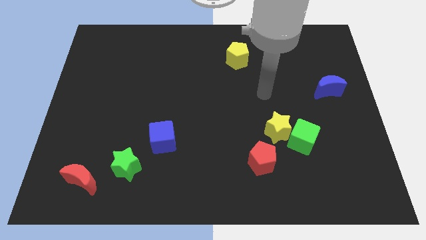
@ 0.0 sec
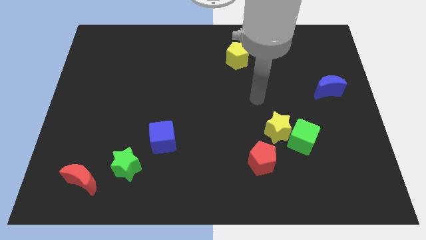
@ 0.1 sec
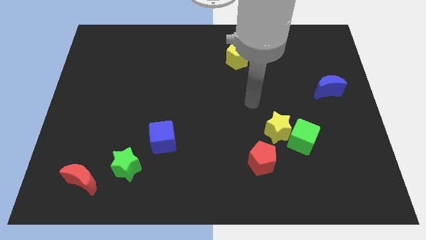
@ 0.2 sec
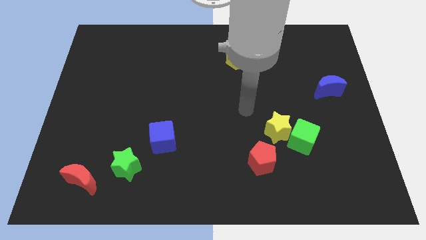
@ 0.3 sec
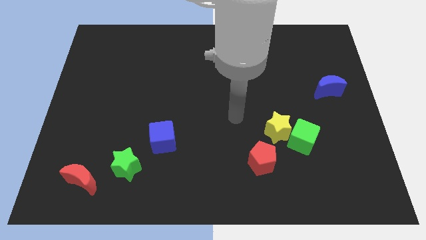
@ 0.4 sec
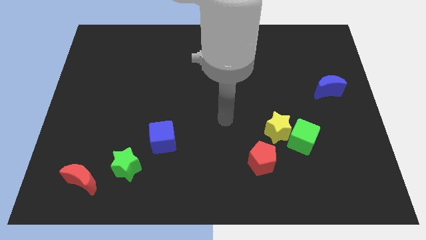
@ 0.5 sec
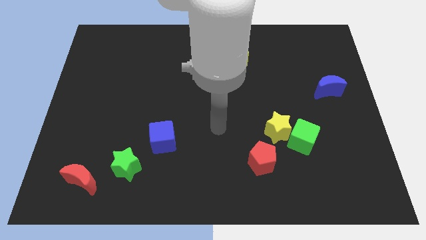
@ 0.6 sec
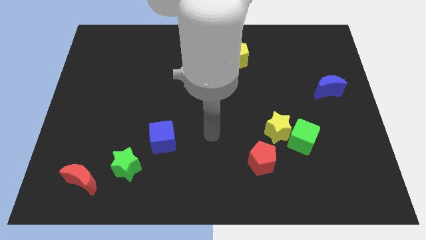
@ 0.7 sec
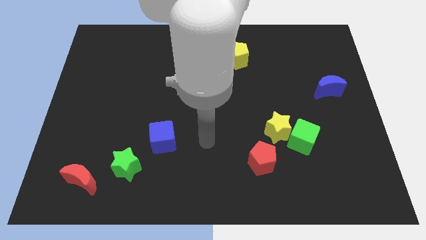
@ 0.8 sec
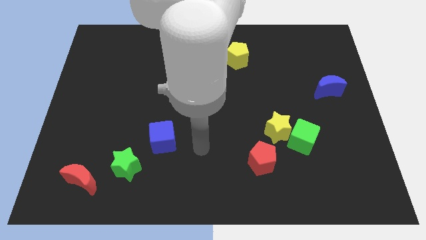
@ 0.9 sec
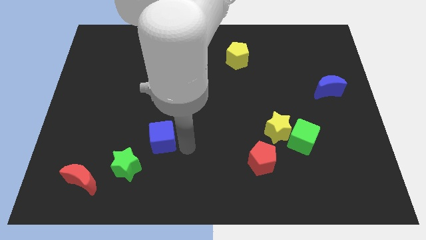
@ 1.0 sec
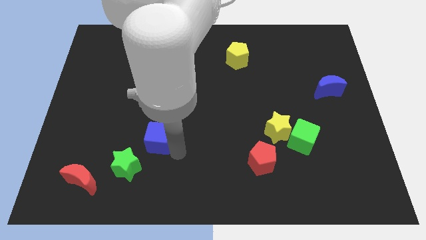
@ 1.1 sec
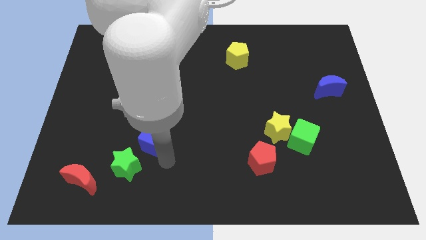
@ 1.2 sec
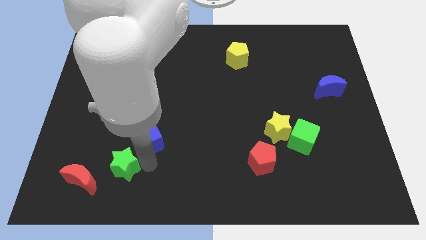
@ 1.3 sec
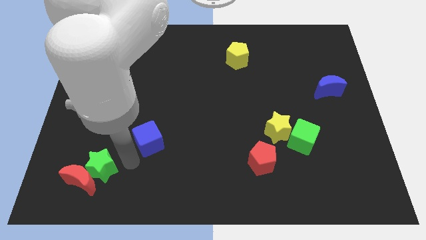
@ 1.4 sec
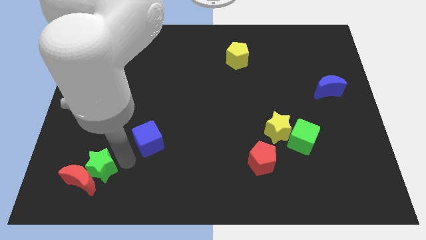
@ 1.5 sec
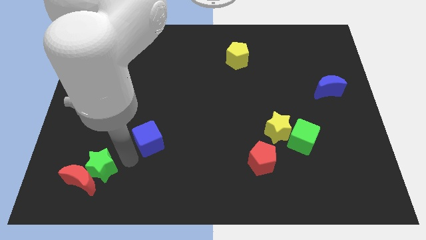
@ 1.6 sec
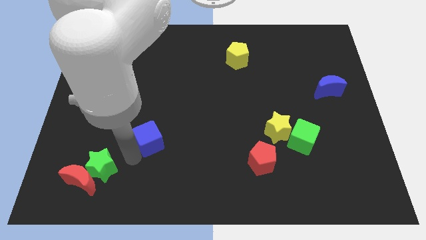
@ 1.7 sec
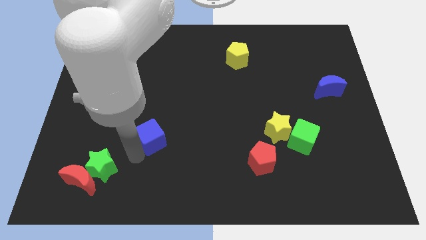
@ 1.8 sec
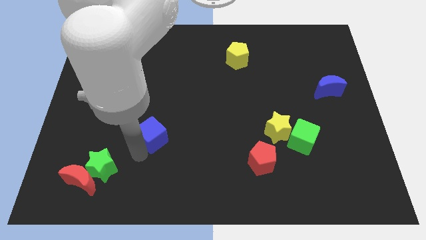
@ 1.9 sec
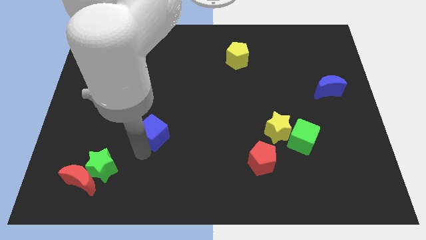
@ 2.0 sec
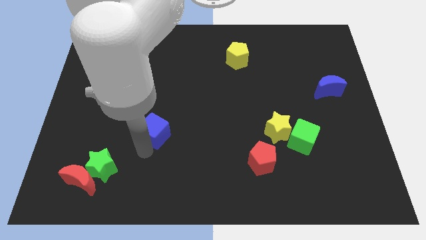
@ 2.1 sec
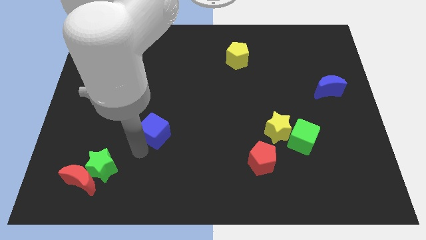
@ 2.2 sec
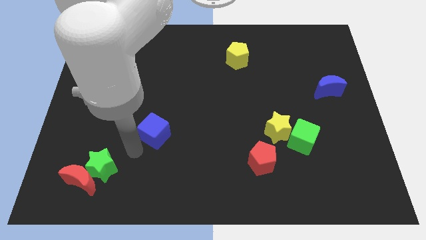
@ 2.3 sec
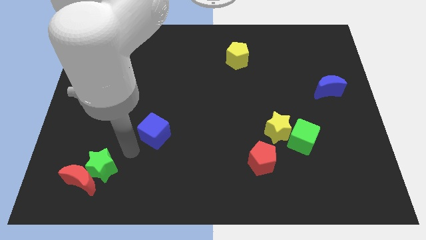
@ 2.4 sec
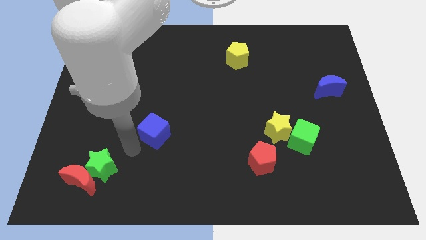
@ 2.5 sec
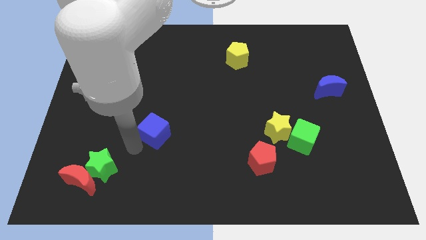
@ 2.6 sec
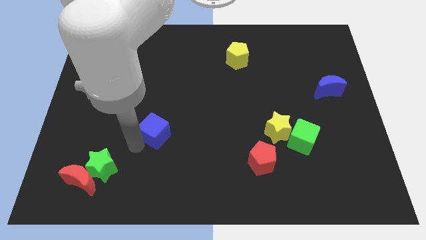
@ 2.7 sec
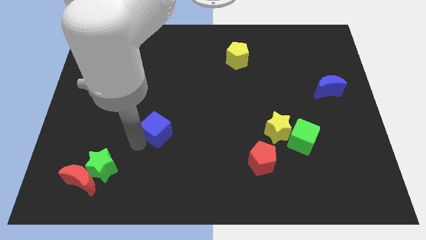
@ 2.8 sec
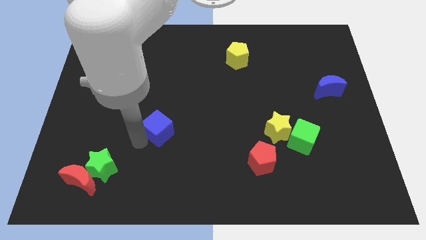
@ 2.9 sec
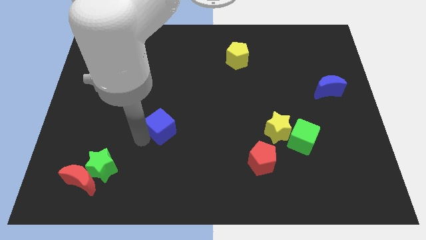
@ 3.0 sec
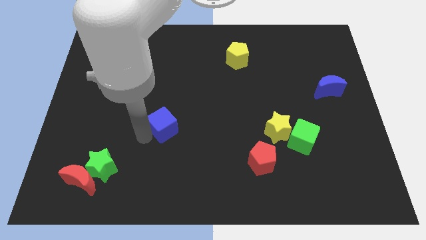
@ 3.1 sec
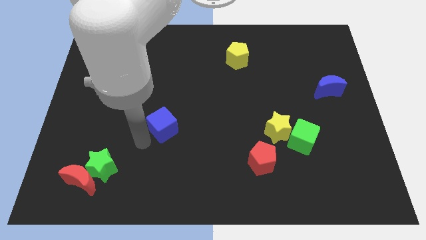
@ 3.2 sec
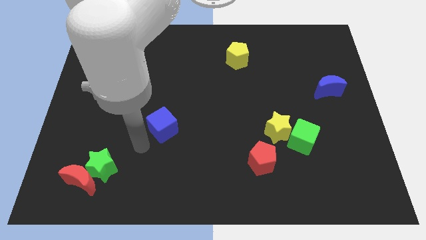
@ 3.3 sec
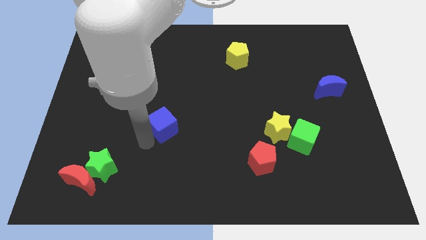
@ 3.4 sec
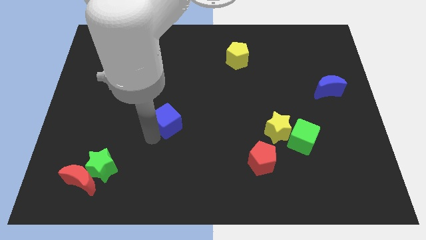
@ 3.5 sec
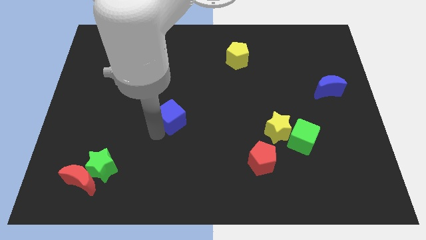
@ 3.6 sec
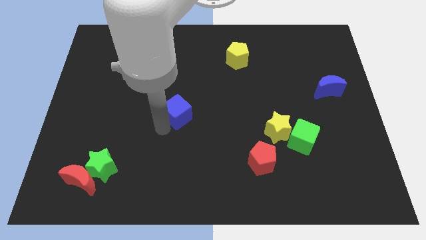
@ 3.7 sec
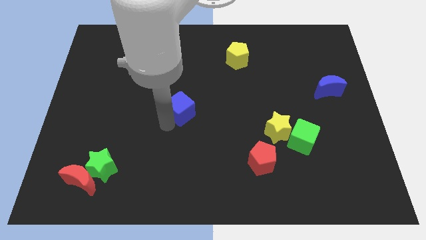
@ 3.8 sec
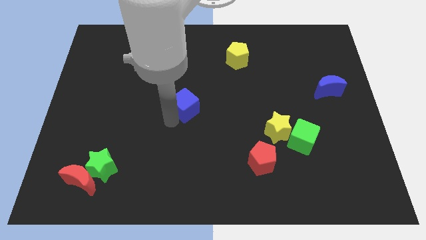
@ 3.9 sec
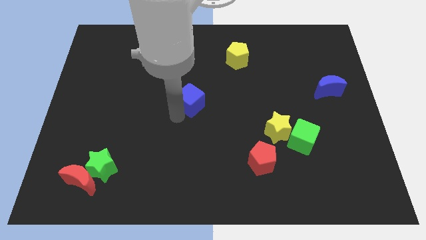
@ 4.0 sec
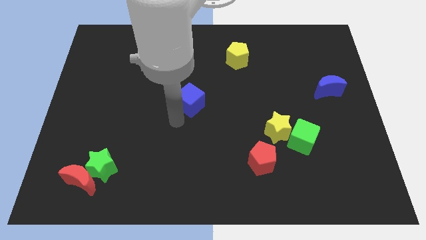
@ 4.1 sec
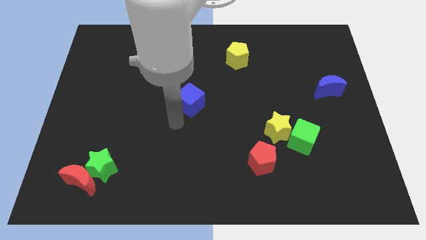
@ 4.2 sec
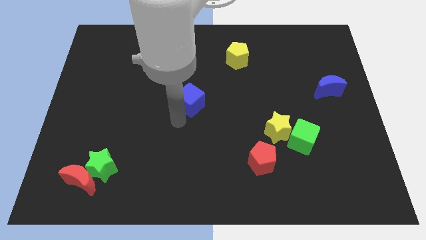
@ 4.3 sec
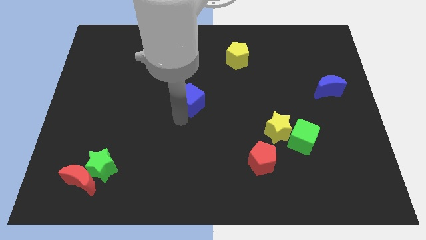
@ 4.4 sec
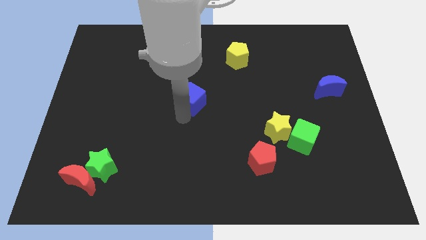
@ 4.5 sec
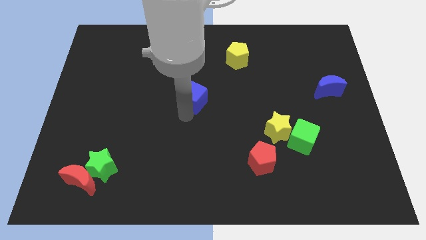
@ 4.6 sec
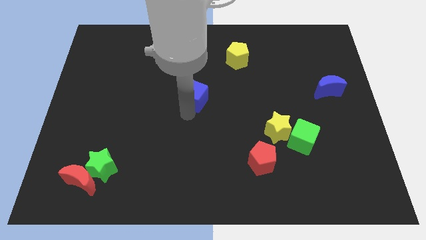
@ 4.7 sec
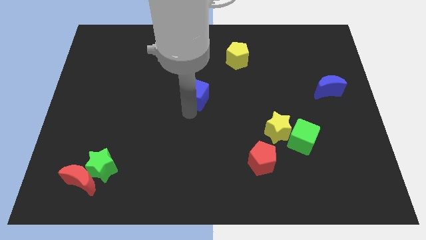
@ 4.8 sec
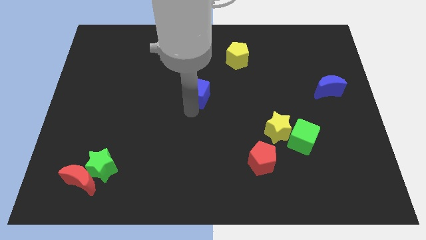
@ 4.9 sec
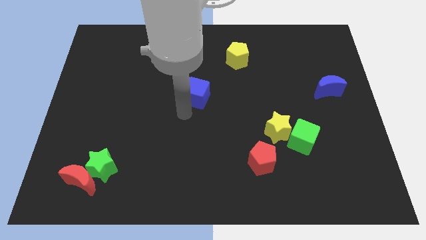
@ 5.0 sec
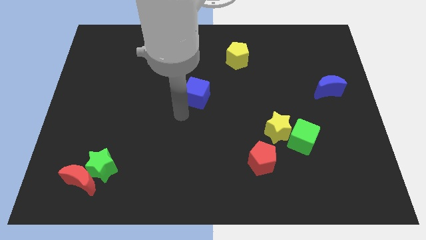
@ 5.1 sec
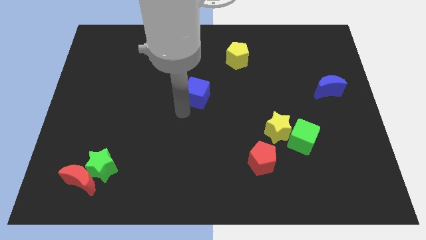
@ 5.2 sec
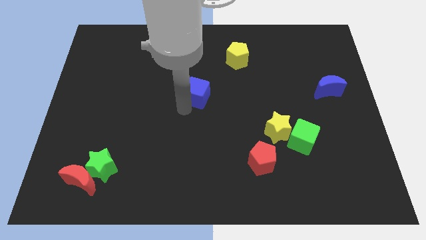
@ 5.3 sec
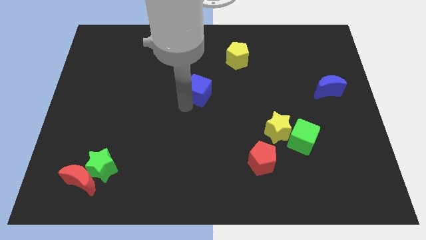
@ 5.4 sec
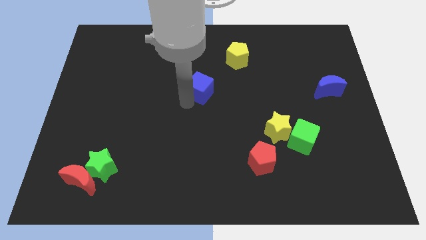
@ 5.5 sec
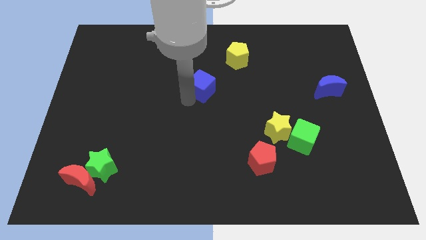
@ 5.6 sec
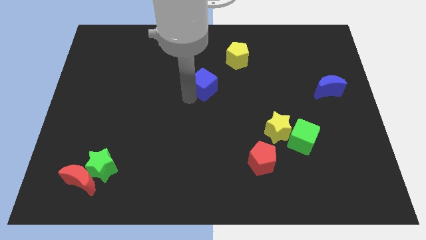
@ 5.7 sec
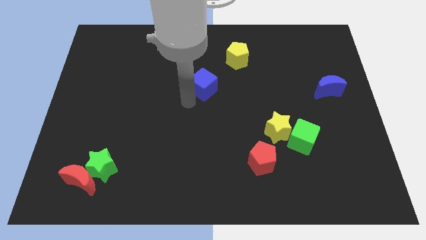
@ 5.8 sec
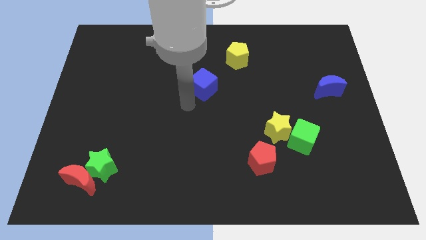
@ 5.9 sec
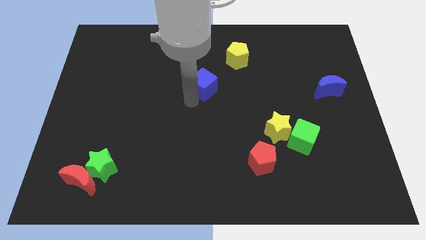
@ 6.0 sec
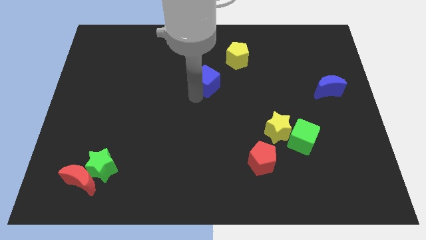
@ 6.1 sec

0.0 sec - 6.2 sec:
move the blue cube to the bottom left of the yellow pentagon

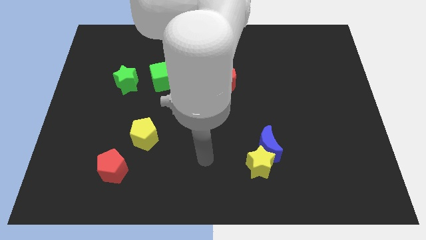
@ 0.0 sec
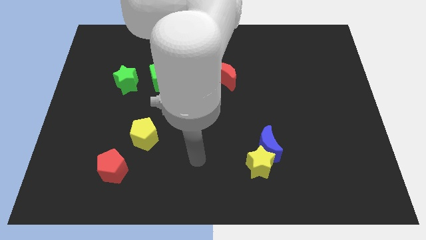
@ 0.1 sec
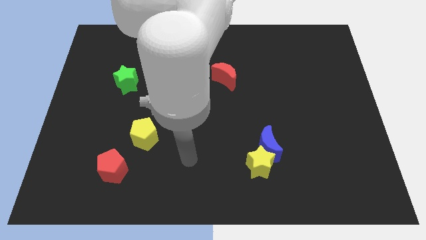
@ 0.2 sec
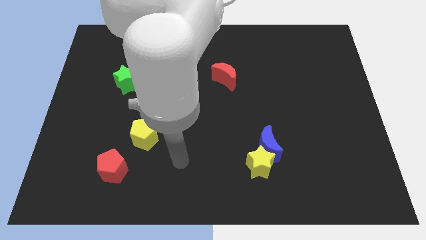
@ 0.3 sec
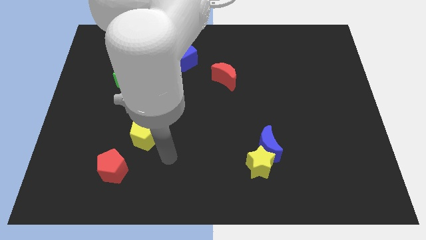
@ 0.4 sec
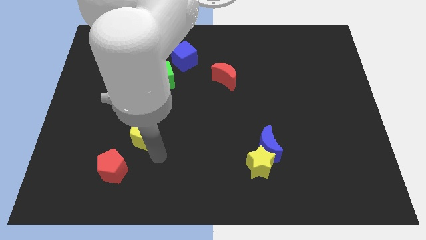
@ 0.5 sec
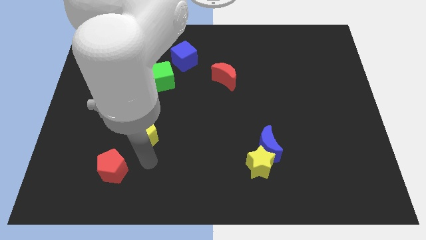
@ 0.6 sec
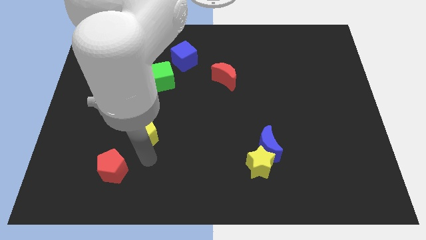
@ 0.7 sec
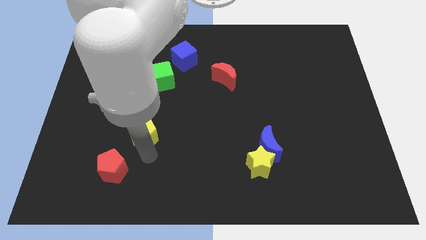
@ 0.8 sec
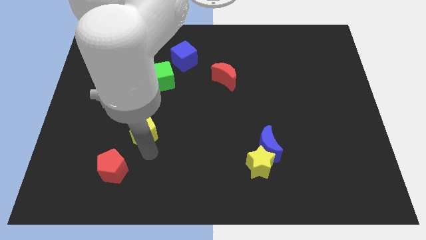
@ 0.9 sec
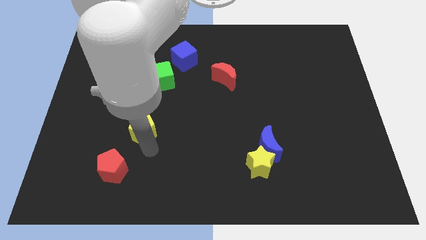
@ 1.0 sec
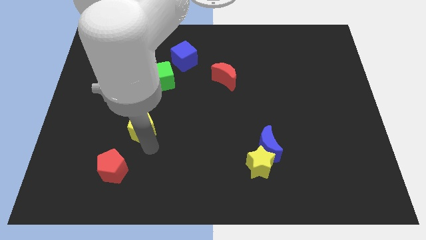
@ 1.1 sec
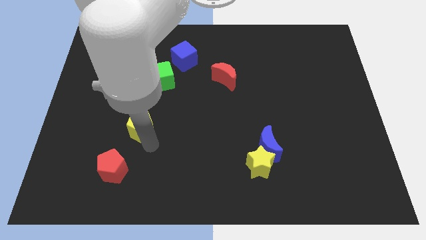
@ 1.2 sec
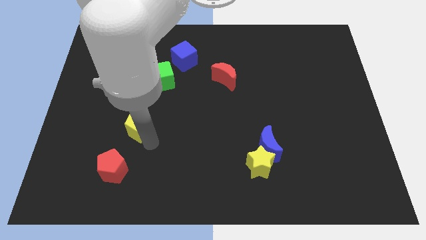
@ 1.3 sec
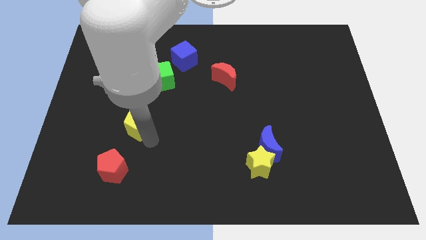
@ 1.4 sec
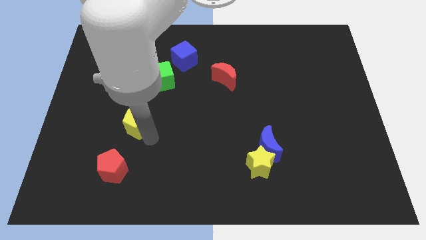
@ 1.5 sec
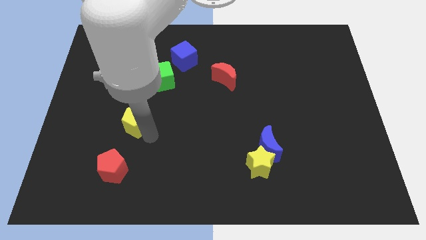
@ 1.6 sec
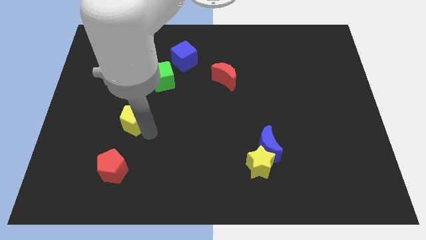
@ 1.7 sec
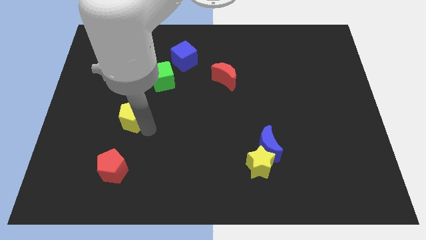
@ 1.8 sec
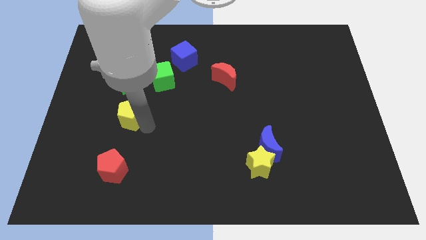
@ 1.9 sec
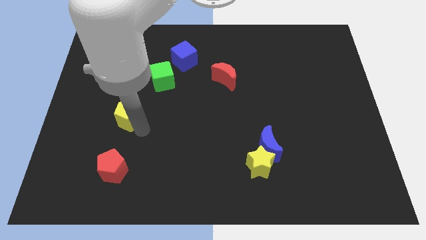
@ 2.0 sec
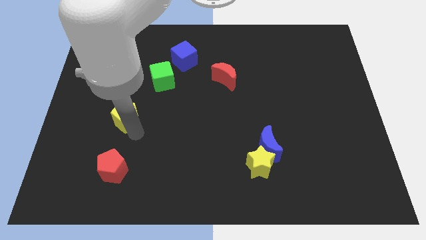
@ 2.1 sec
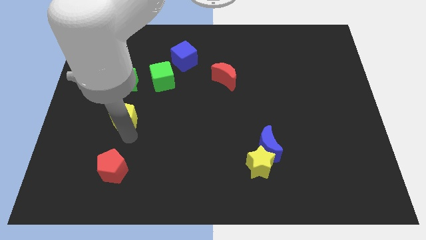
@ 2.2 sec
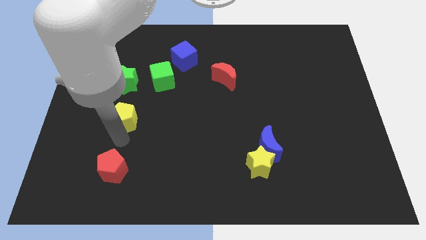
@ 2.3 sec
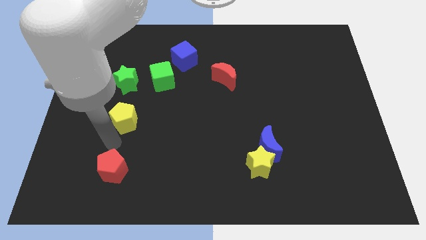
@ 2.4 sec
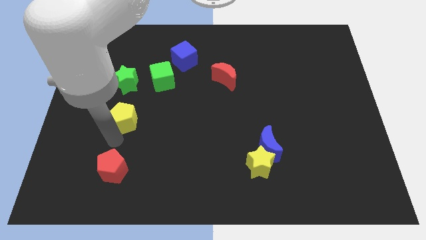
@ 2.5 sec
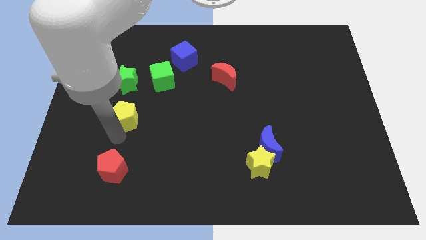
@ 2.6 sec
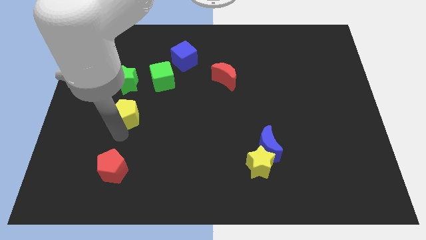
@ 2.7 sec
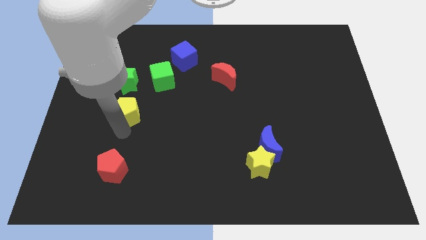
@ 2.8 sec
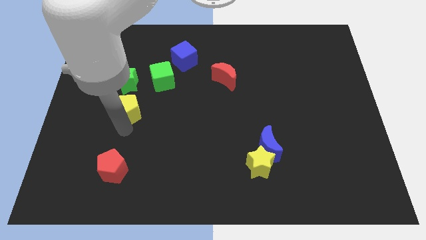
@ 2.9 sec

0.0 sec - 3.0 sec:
move the yellow pentagon to the bottom left of the green cube
